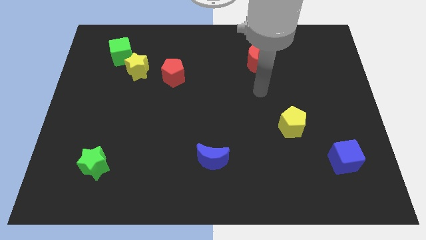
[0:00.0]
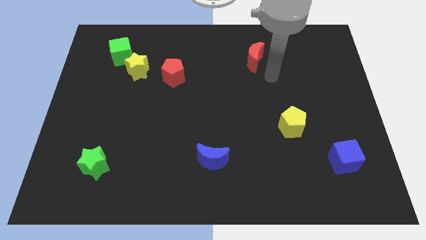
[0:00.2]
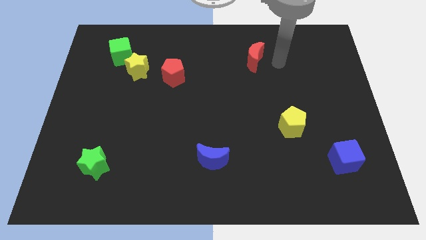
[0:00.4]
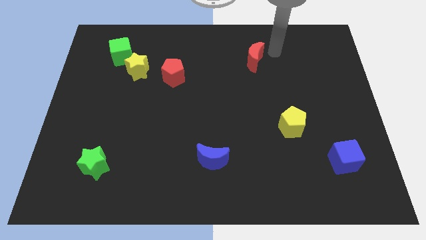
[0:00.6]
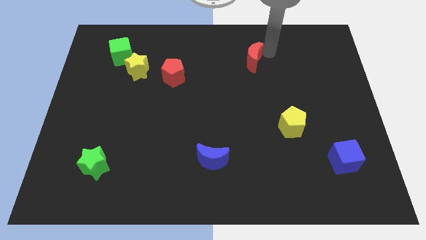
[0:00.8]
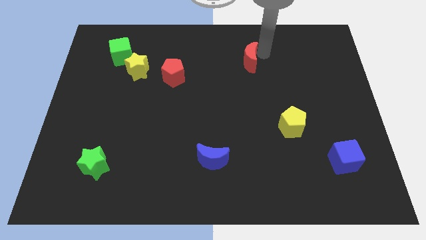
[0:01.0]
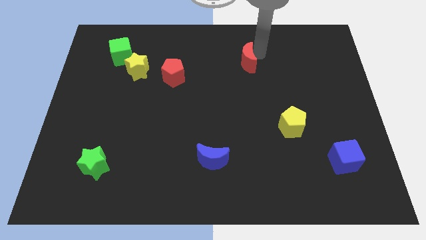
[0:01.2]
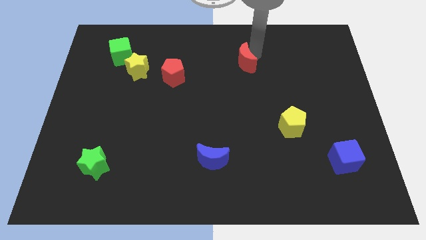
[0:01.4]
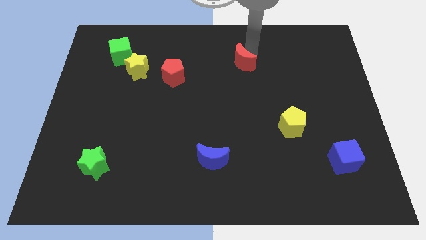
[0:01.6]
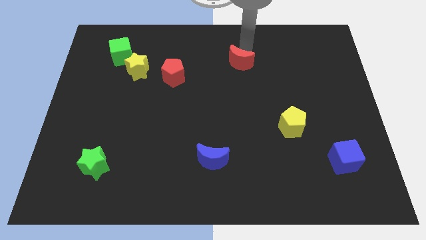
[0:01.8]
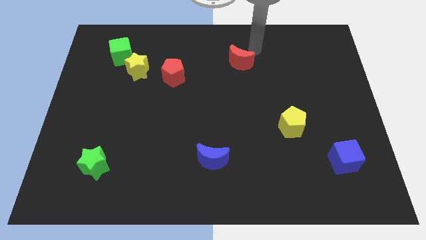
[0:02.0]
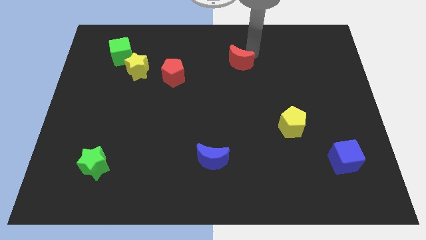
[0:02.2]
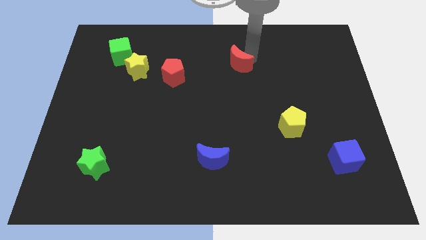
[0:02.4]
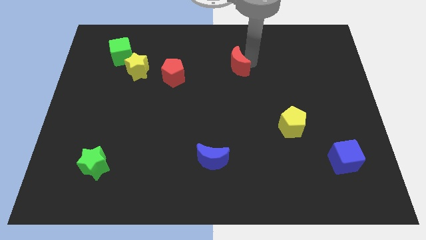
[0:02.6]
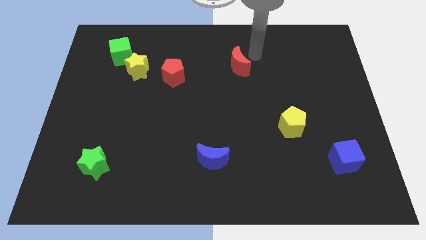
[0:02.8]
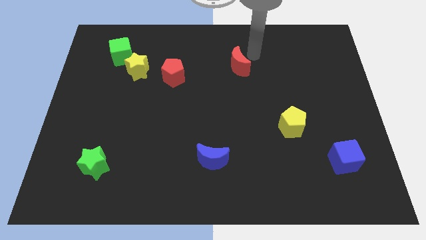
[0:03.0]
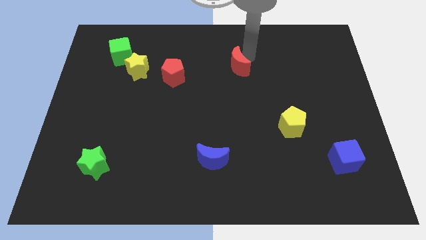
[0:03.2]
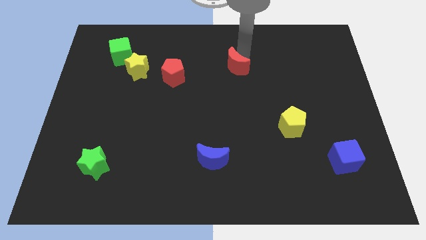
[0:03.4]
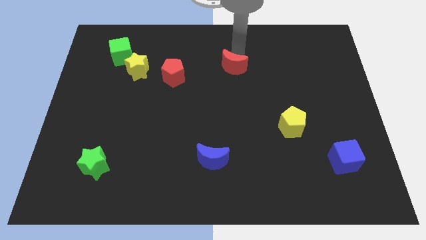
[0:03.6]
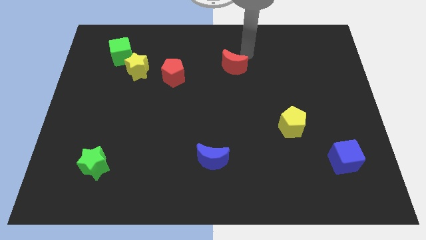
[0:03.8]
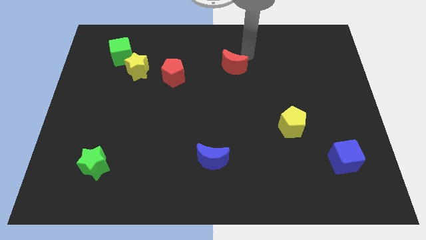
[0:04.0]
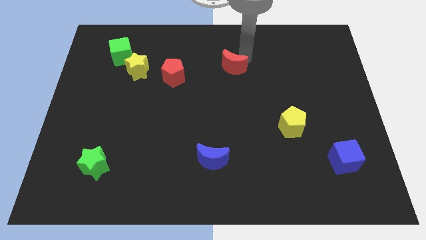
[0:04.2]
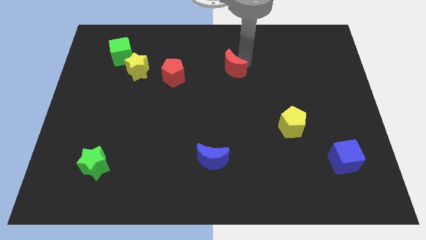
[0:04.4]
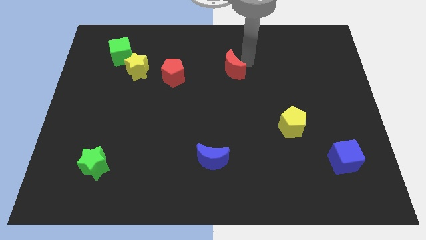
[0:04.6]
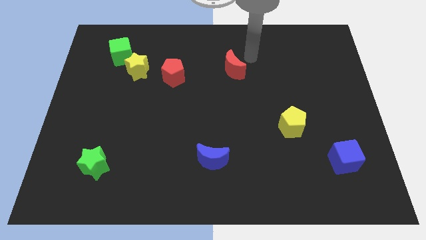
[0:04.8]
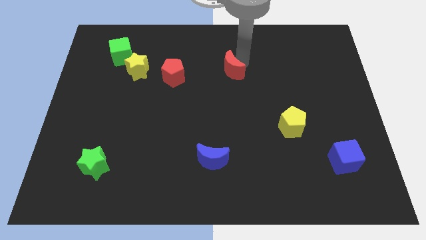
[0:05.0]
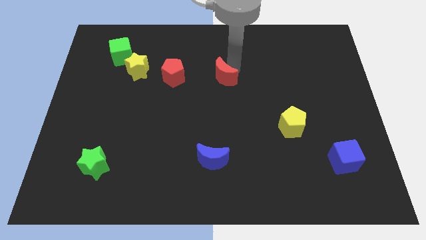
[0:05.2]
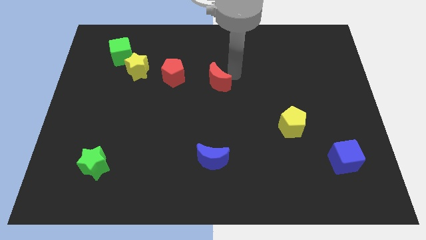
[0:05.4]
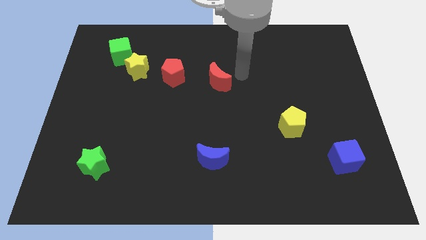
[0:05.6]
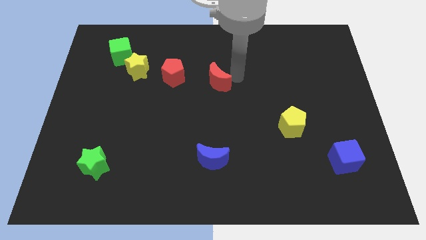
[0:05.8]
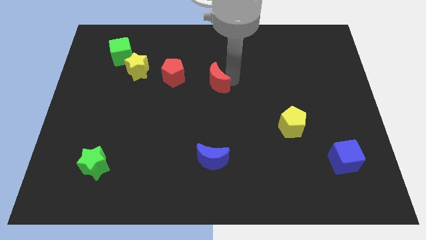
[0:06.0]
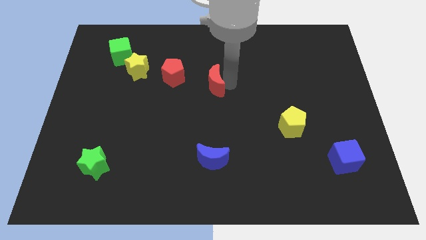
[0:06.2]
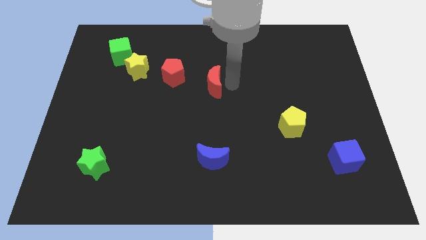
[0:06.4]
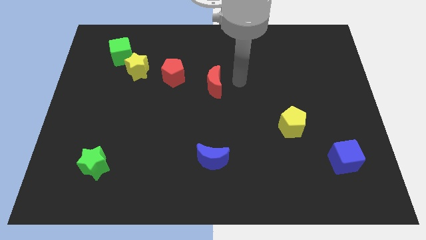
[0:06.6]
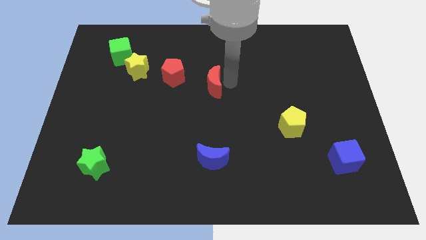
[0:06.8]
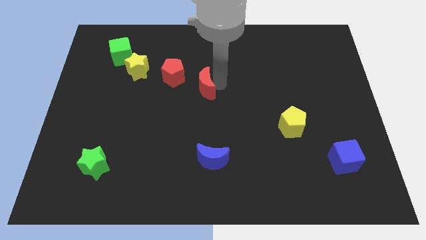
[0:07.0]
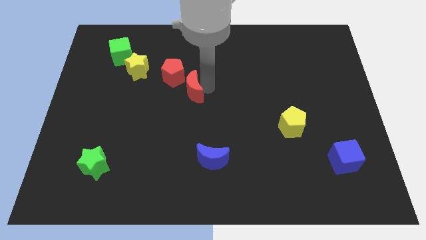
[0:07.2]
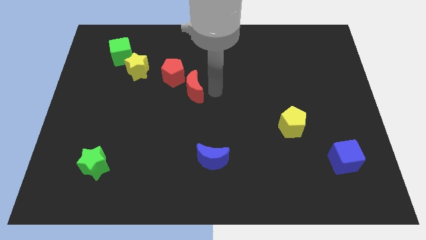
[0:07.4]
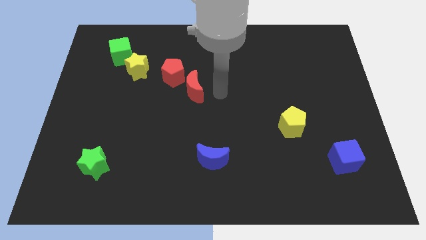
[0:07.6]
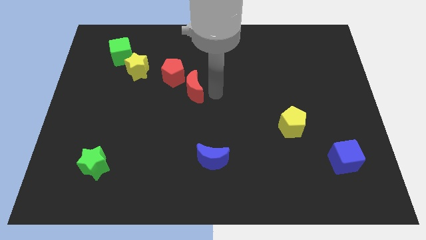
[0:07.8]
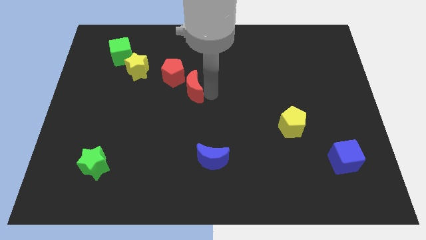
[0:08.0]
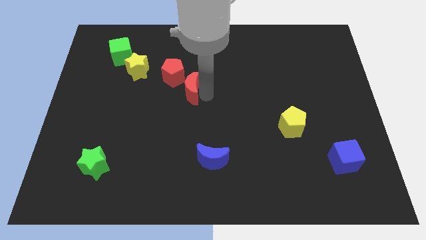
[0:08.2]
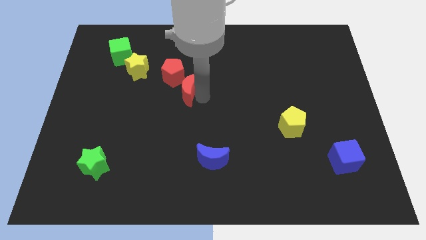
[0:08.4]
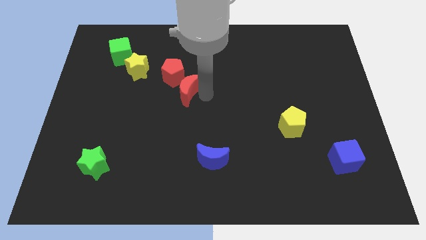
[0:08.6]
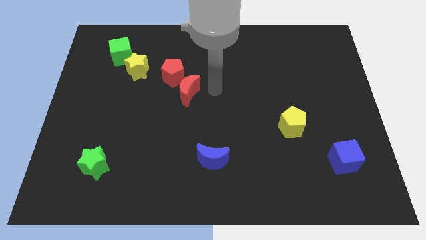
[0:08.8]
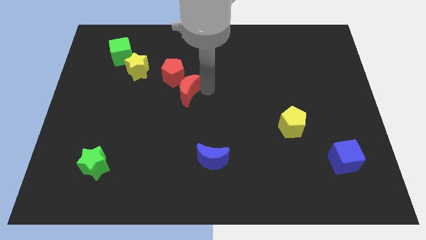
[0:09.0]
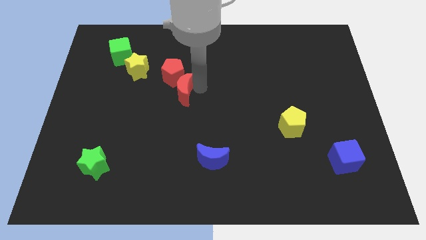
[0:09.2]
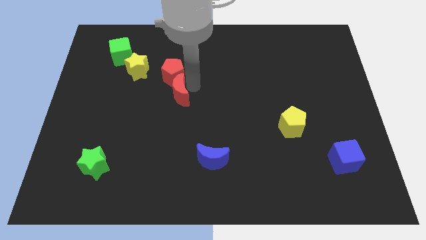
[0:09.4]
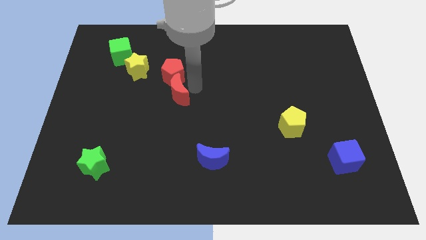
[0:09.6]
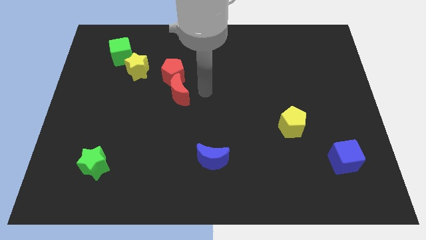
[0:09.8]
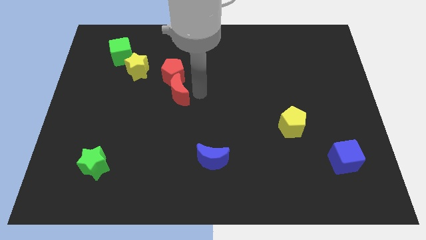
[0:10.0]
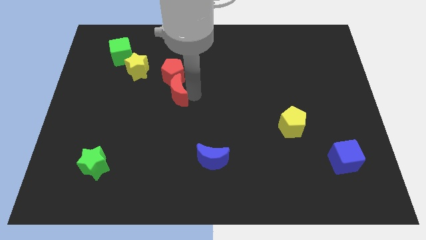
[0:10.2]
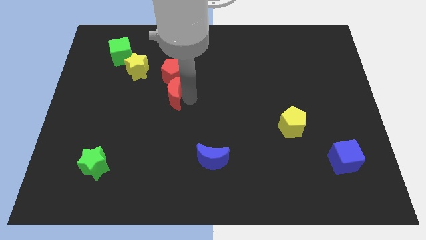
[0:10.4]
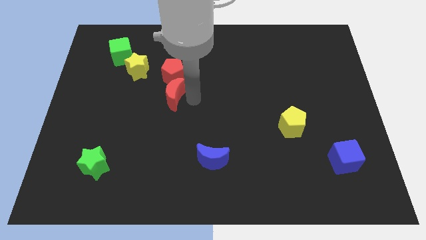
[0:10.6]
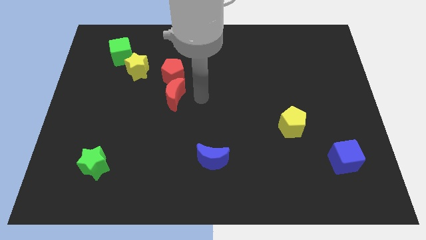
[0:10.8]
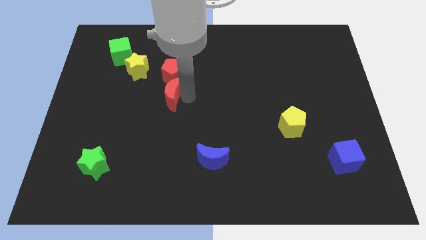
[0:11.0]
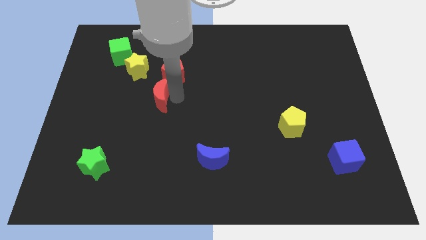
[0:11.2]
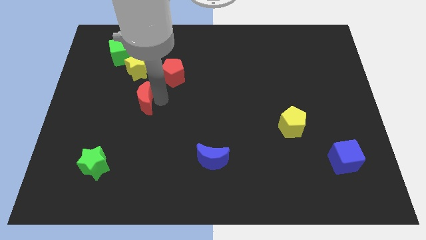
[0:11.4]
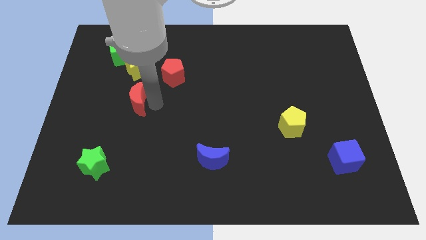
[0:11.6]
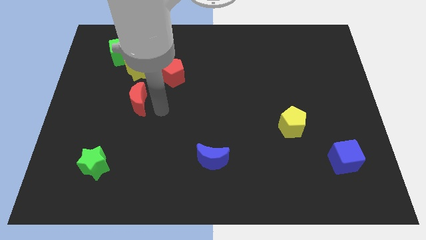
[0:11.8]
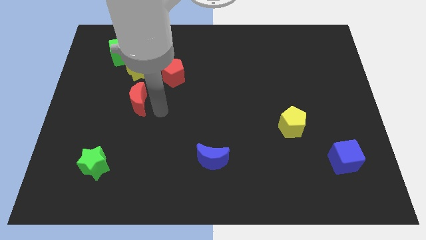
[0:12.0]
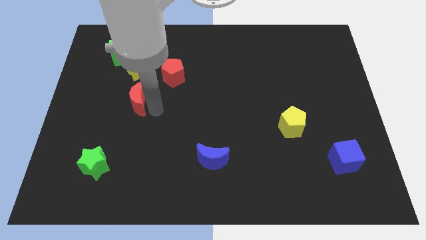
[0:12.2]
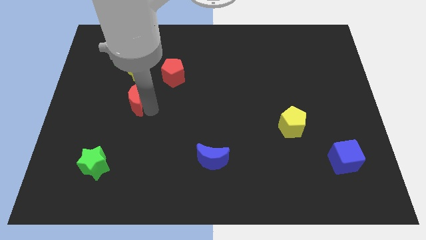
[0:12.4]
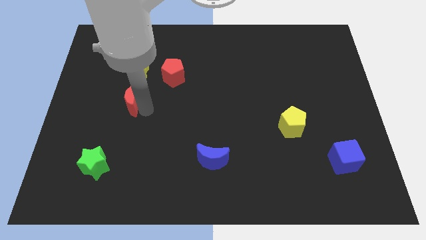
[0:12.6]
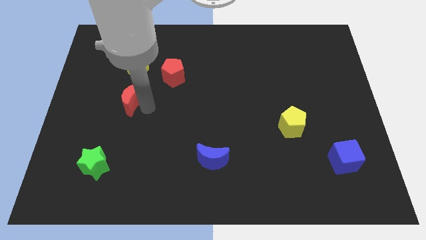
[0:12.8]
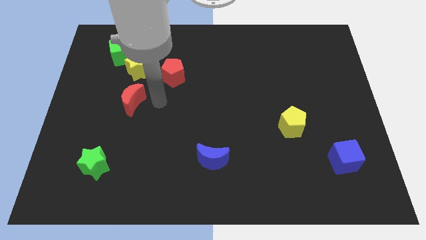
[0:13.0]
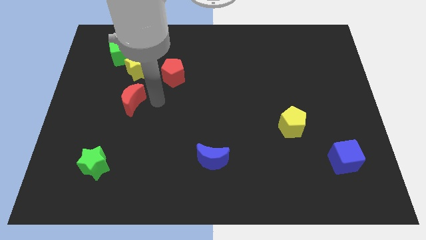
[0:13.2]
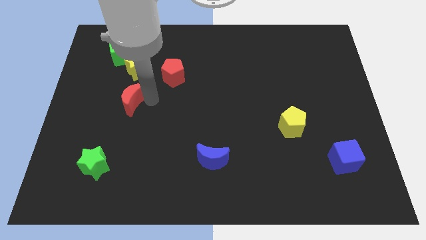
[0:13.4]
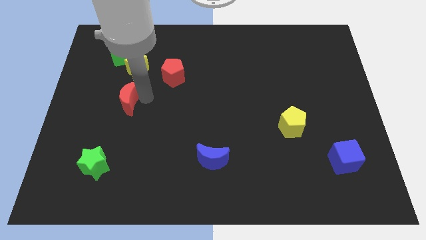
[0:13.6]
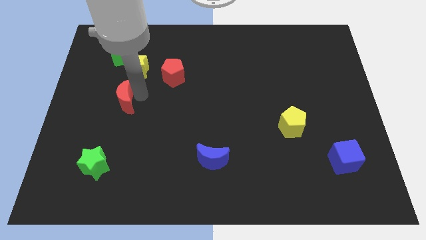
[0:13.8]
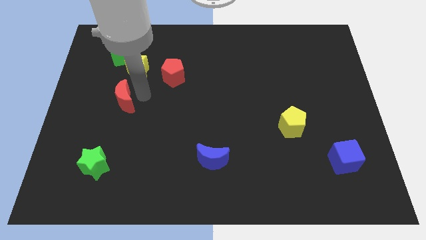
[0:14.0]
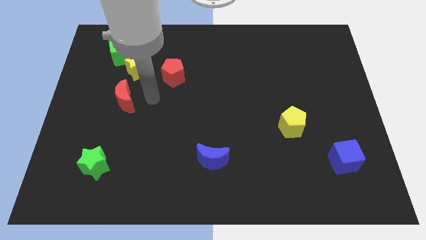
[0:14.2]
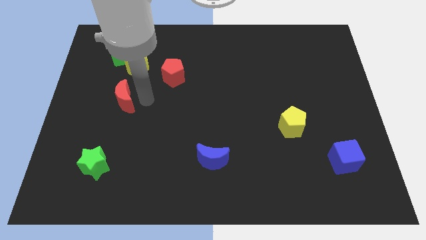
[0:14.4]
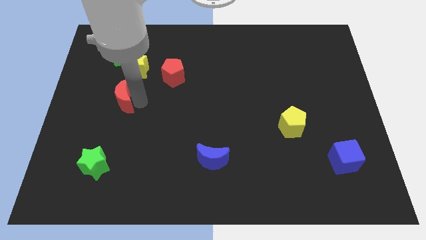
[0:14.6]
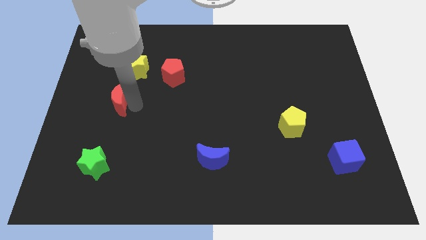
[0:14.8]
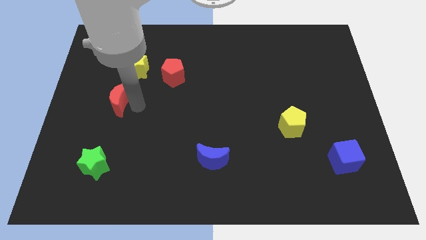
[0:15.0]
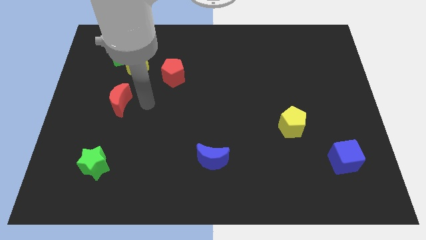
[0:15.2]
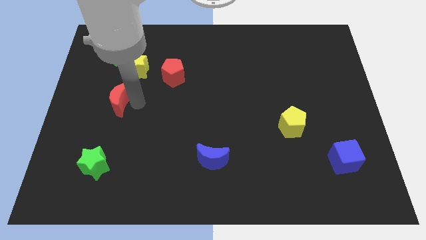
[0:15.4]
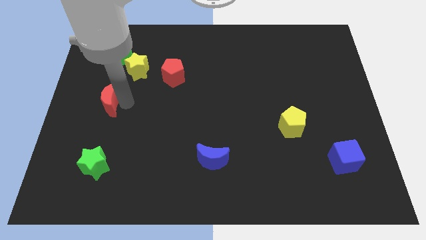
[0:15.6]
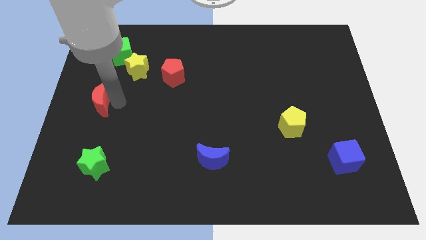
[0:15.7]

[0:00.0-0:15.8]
move the red moon to the left side of the board
